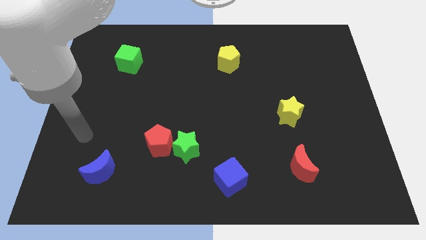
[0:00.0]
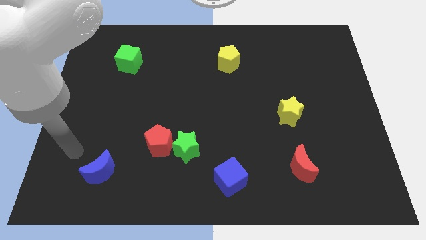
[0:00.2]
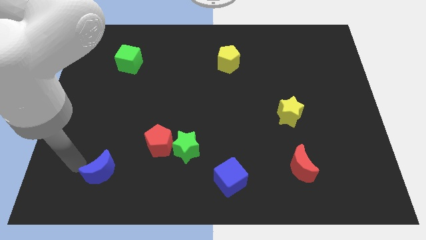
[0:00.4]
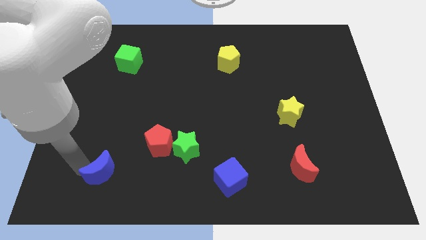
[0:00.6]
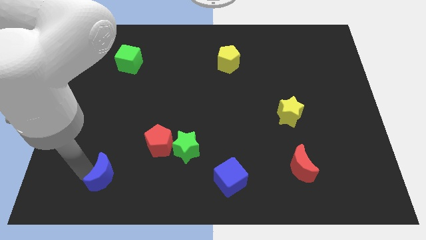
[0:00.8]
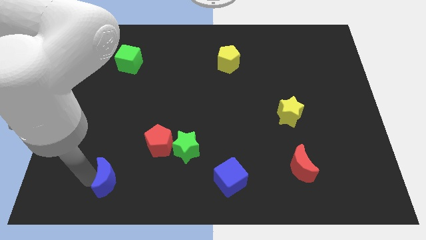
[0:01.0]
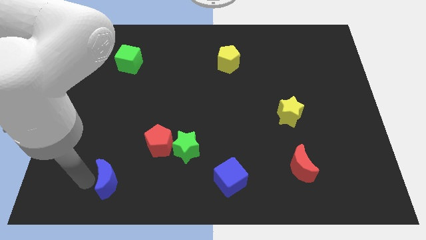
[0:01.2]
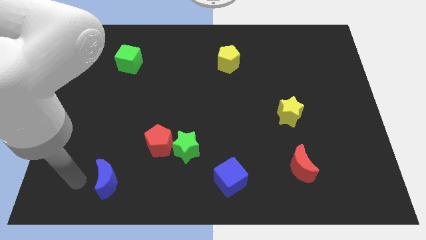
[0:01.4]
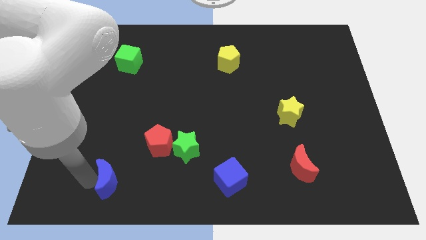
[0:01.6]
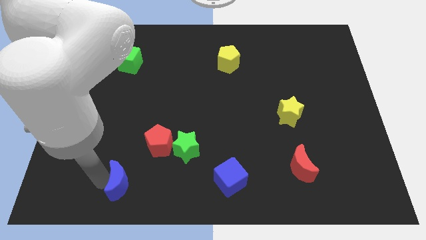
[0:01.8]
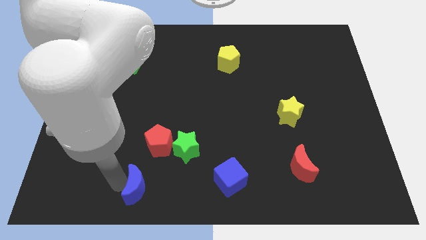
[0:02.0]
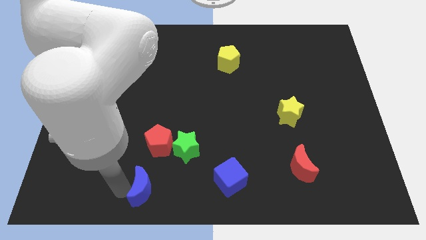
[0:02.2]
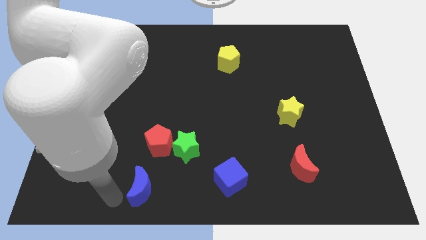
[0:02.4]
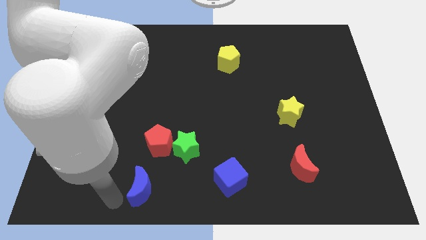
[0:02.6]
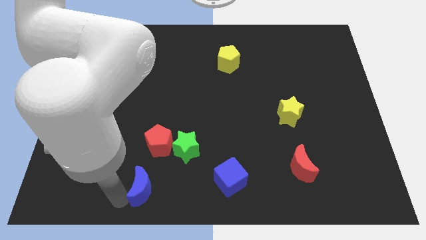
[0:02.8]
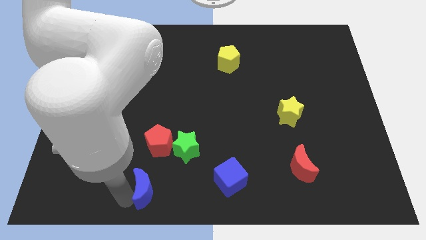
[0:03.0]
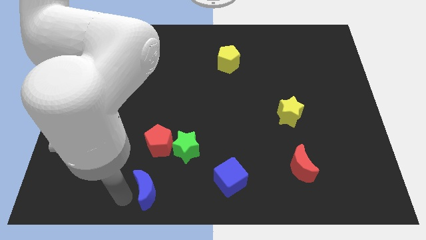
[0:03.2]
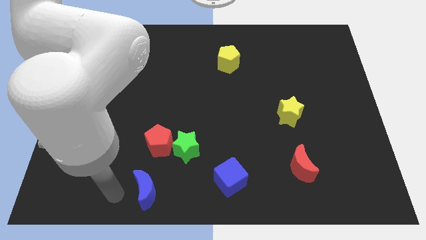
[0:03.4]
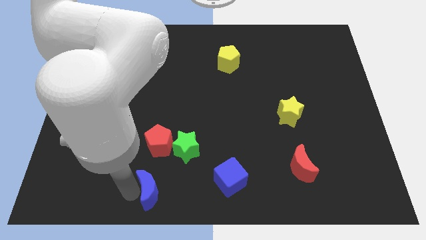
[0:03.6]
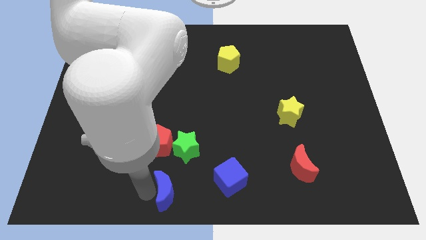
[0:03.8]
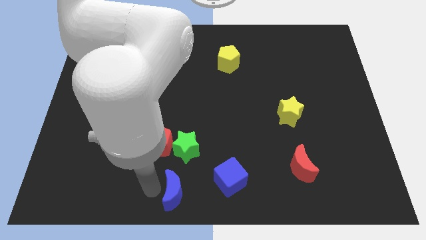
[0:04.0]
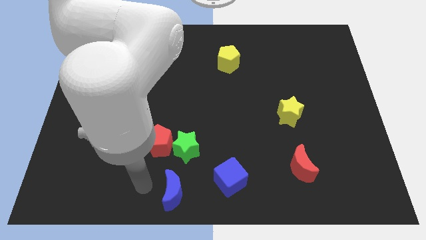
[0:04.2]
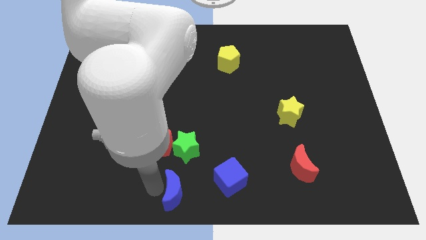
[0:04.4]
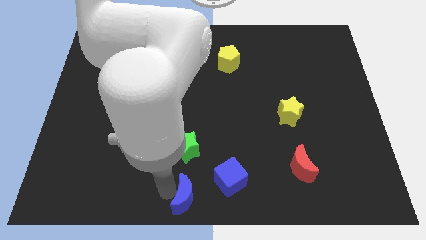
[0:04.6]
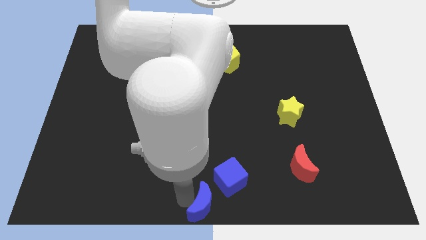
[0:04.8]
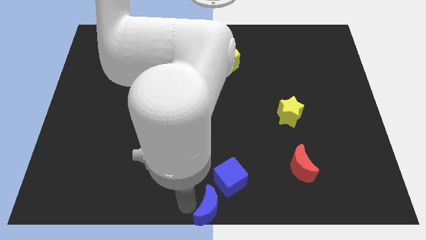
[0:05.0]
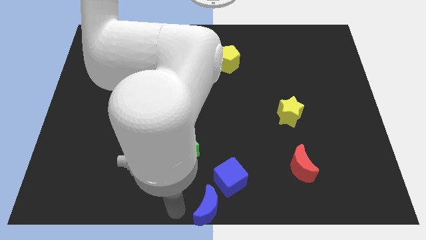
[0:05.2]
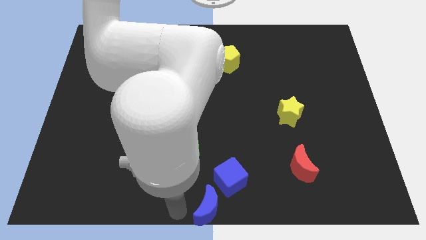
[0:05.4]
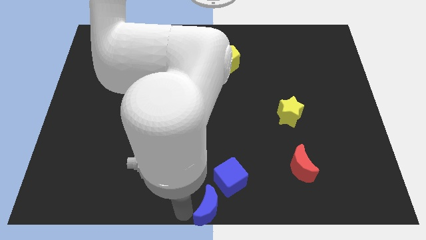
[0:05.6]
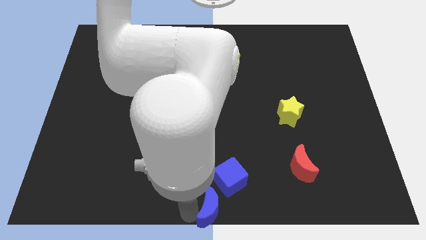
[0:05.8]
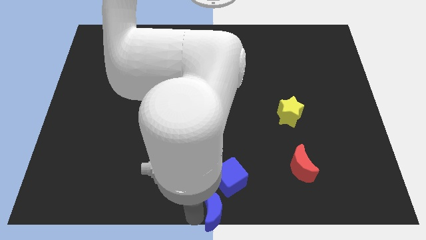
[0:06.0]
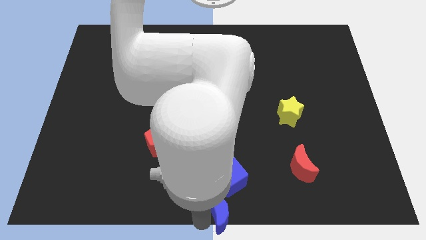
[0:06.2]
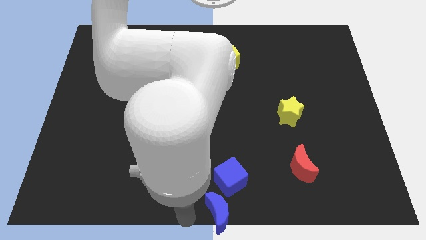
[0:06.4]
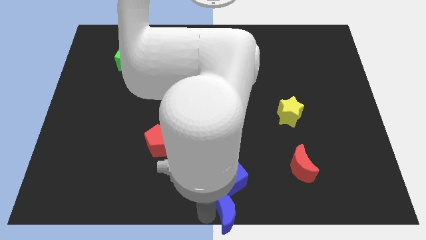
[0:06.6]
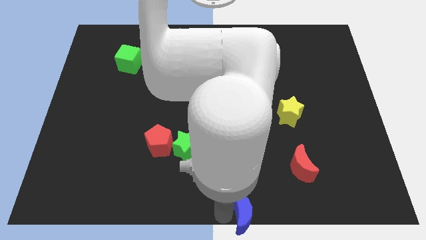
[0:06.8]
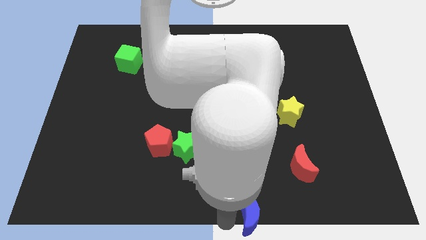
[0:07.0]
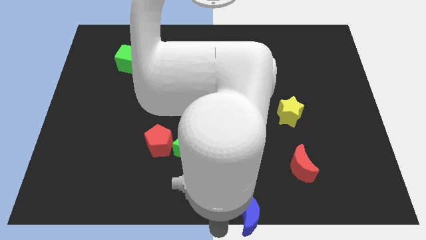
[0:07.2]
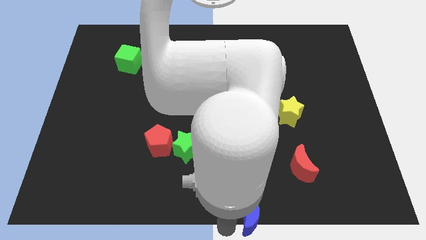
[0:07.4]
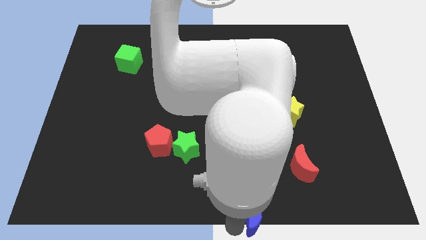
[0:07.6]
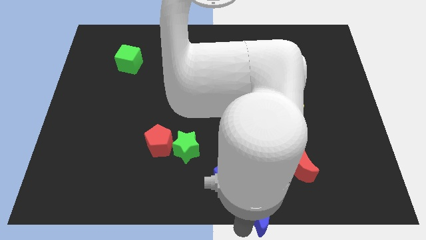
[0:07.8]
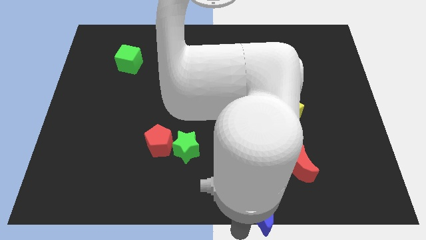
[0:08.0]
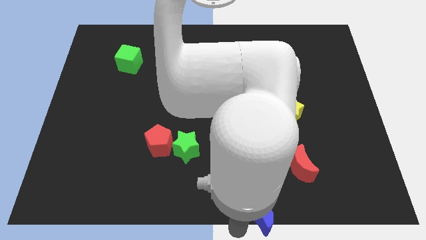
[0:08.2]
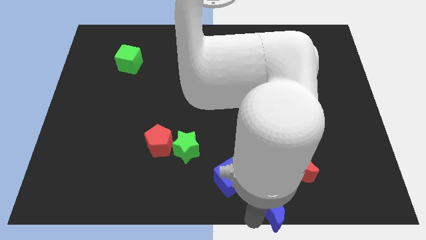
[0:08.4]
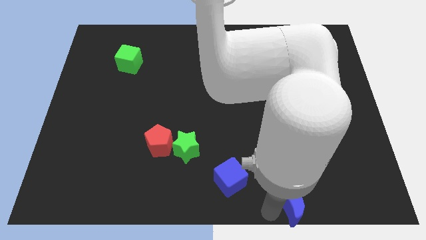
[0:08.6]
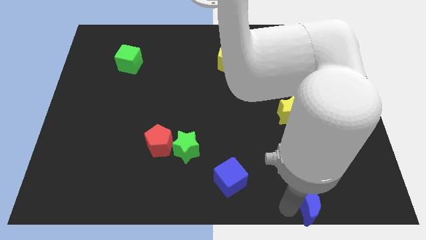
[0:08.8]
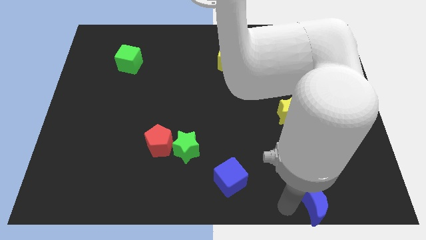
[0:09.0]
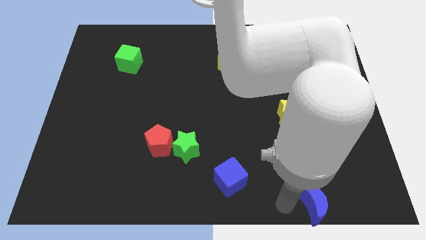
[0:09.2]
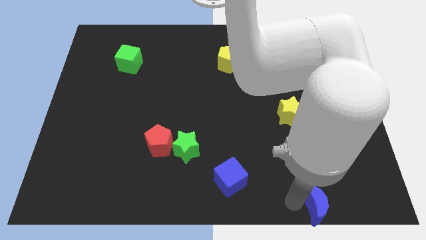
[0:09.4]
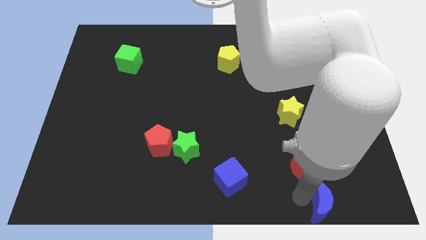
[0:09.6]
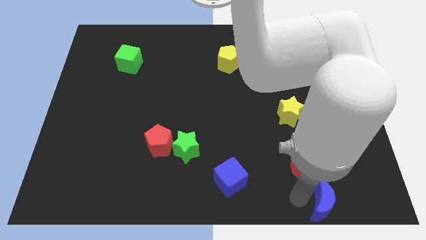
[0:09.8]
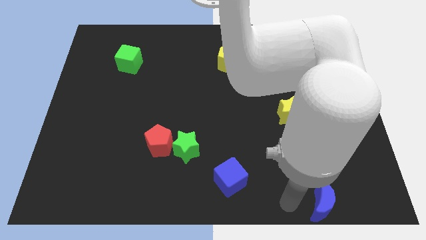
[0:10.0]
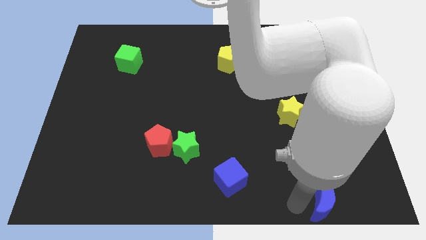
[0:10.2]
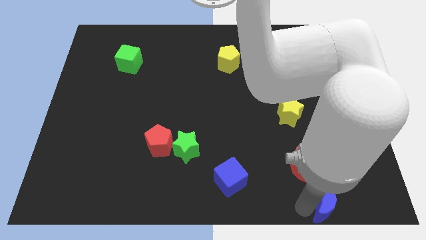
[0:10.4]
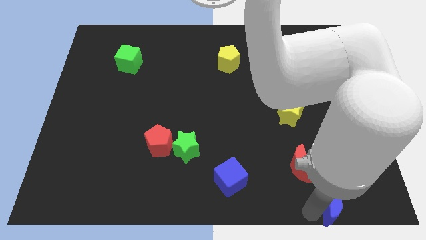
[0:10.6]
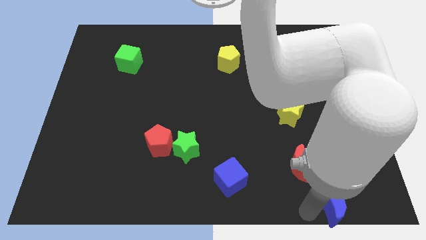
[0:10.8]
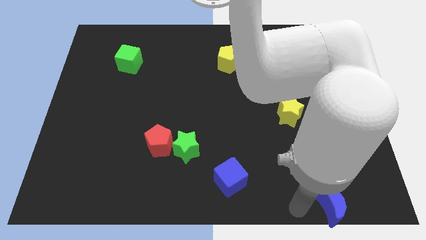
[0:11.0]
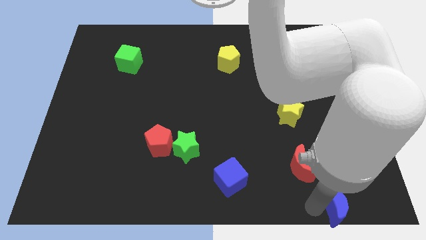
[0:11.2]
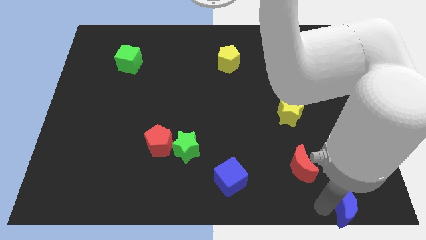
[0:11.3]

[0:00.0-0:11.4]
slide the blue moon to the bottom right corner

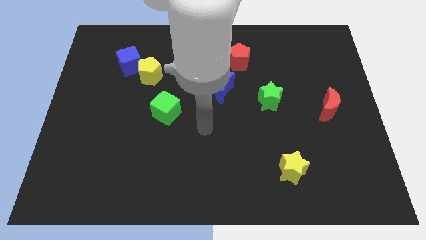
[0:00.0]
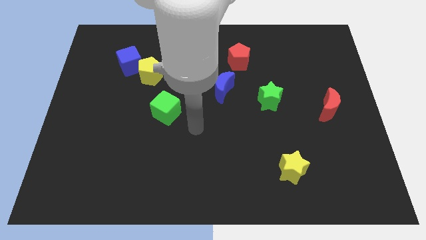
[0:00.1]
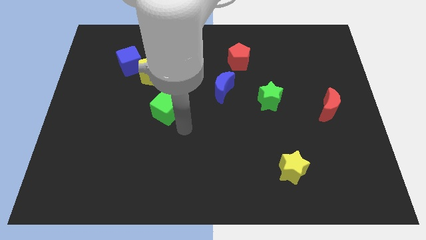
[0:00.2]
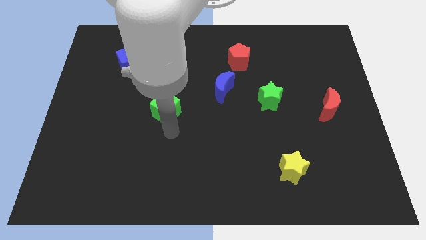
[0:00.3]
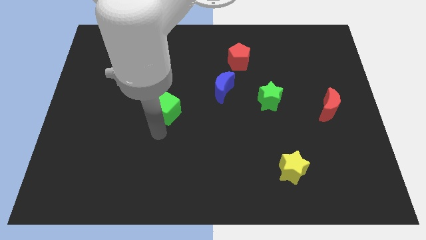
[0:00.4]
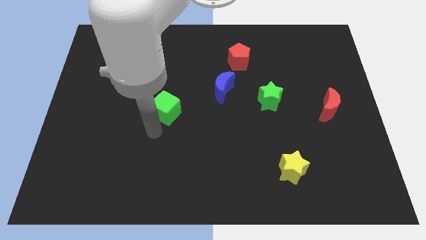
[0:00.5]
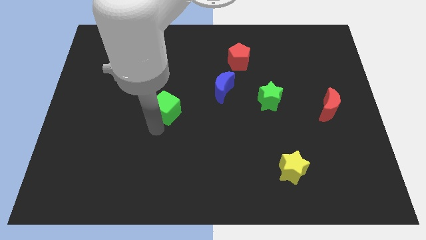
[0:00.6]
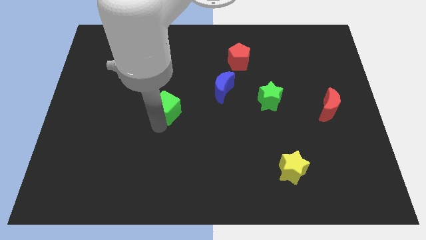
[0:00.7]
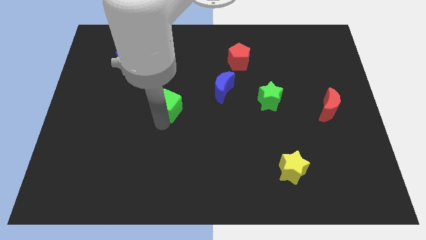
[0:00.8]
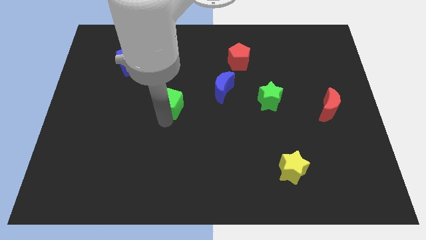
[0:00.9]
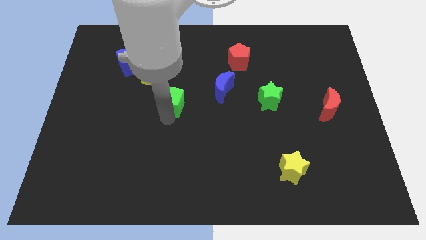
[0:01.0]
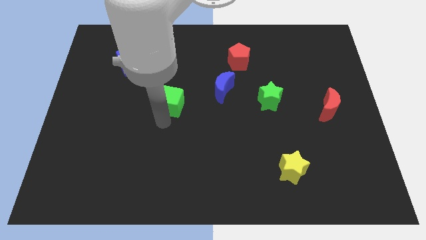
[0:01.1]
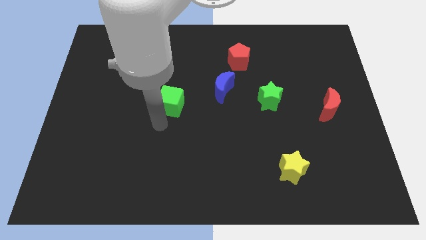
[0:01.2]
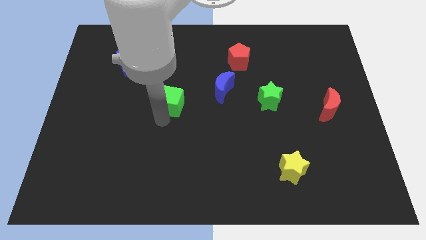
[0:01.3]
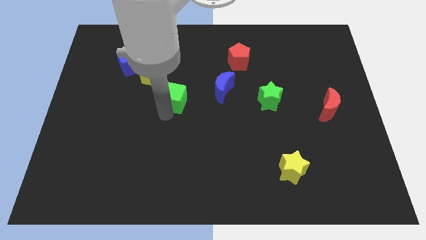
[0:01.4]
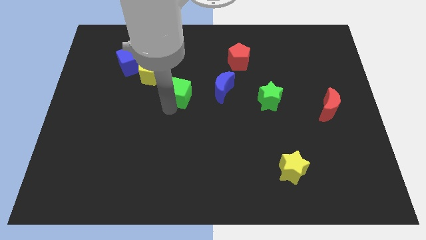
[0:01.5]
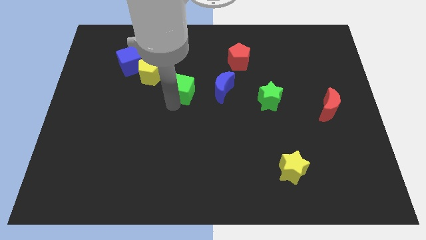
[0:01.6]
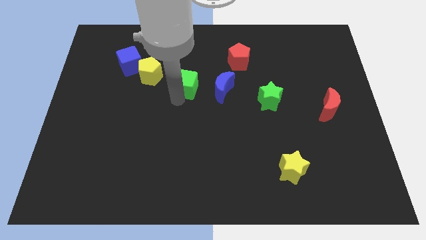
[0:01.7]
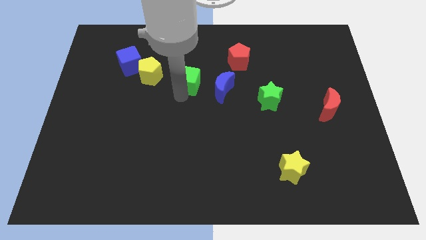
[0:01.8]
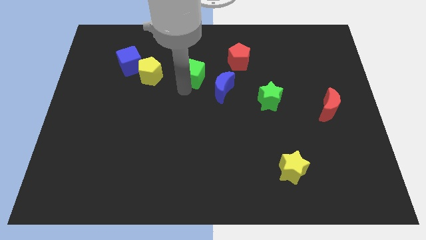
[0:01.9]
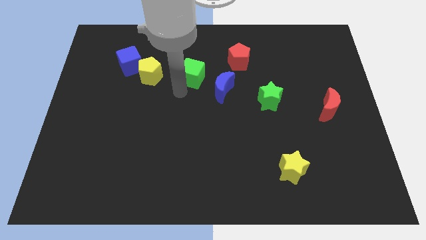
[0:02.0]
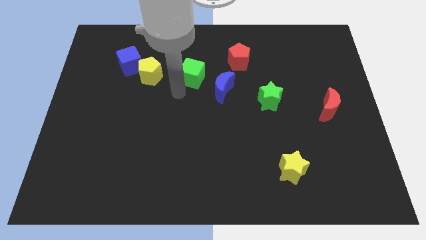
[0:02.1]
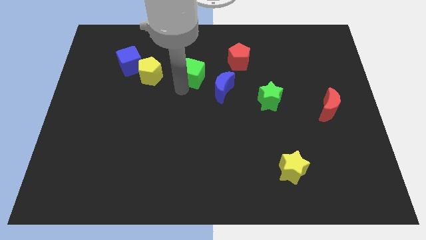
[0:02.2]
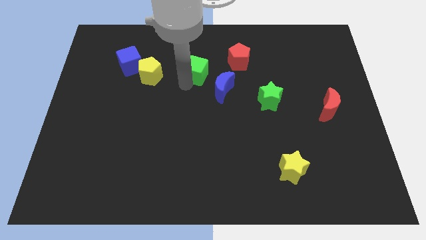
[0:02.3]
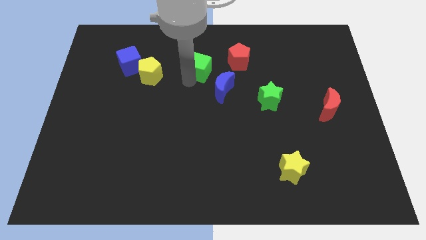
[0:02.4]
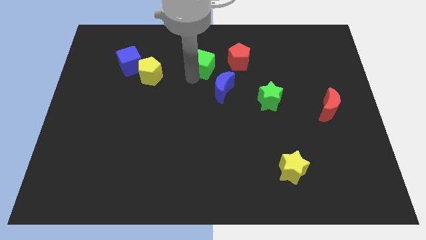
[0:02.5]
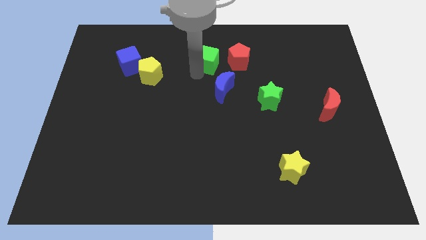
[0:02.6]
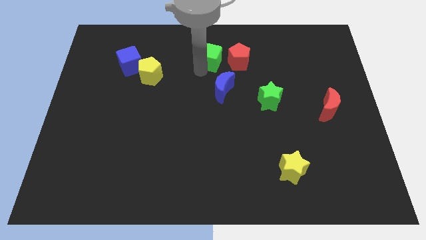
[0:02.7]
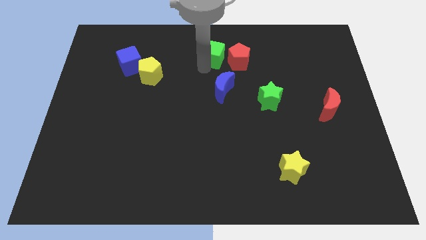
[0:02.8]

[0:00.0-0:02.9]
slide the green cube to the top
